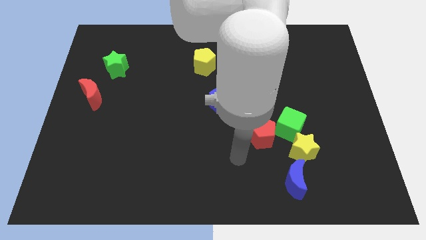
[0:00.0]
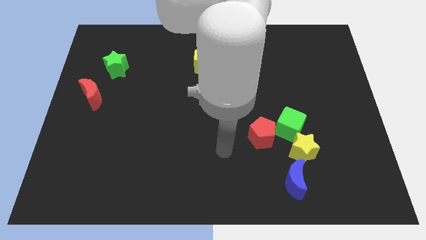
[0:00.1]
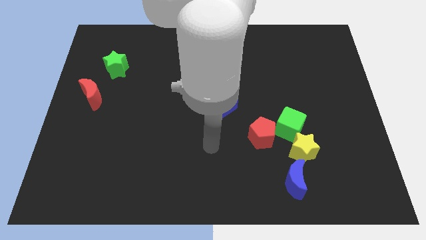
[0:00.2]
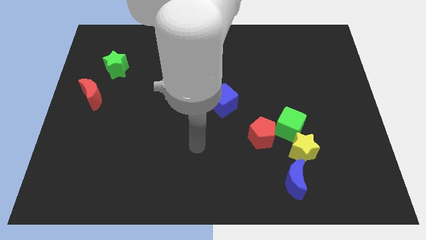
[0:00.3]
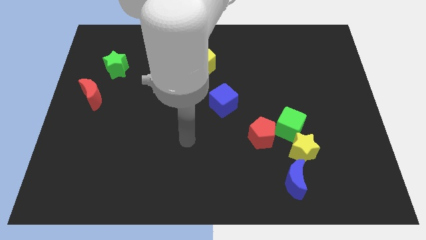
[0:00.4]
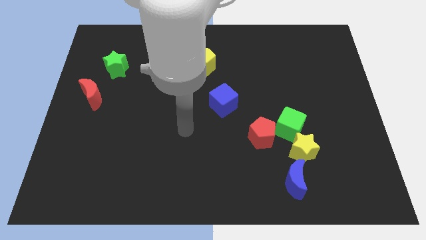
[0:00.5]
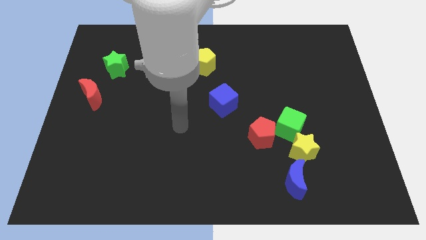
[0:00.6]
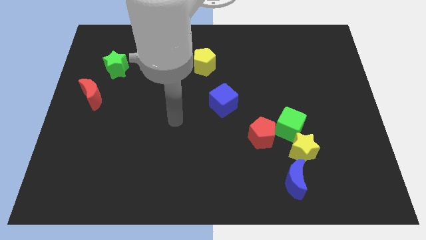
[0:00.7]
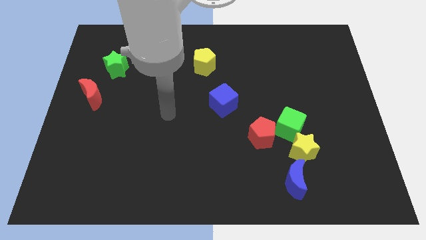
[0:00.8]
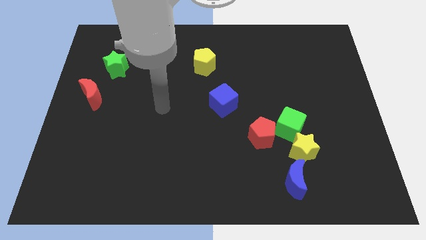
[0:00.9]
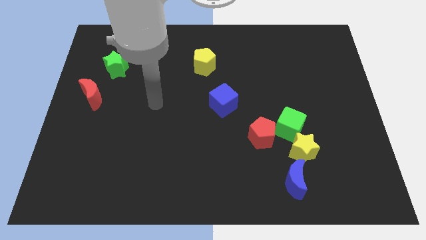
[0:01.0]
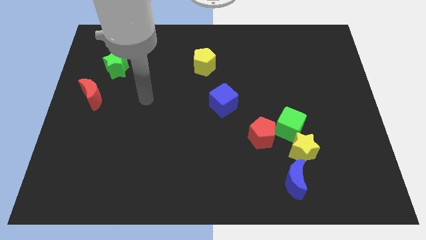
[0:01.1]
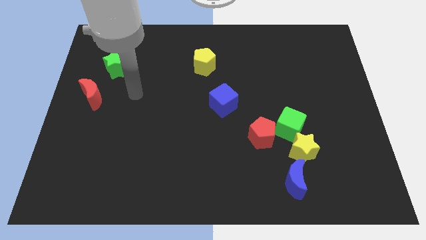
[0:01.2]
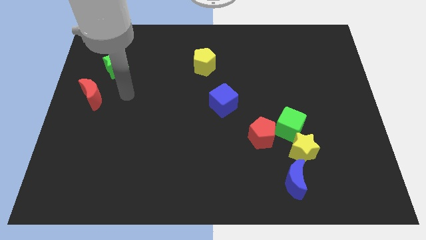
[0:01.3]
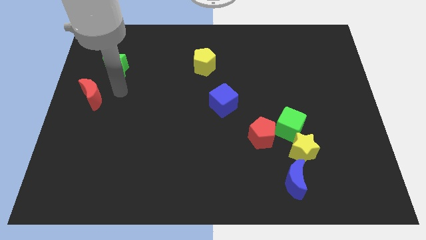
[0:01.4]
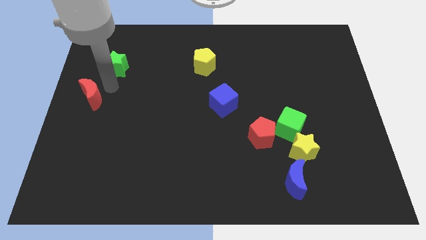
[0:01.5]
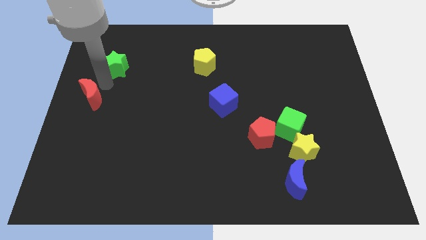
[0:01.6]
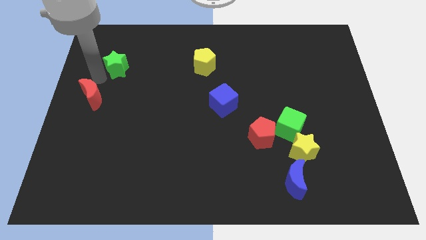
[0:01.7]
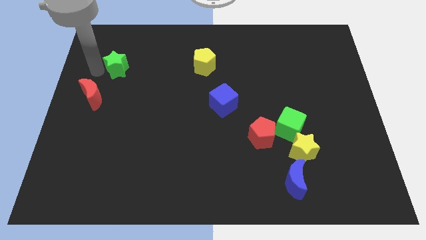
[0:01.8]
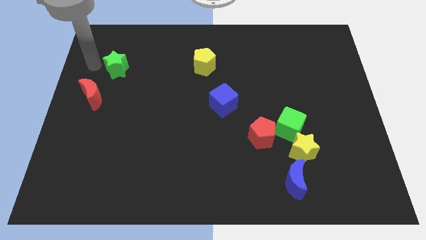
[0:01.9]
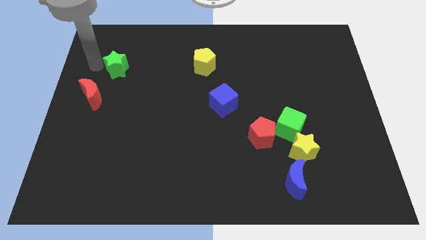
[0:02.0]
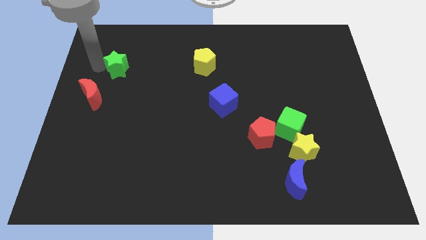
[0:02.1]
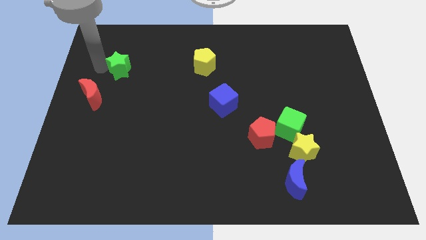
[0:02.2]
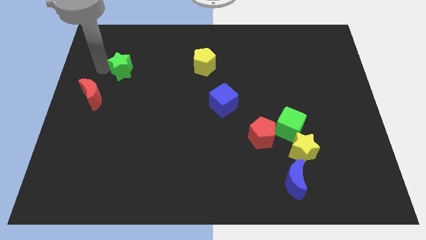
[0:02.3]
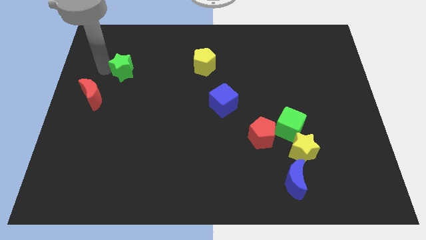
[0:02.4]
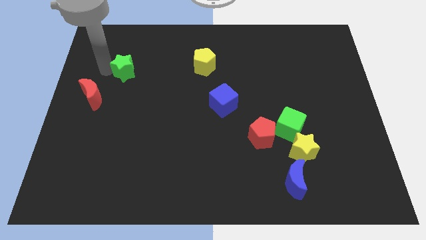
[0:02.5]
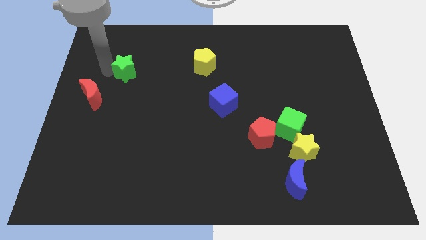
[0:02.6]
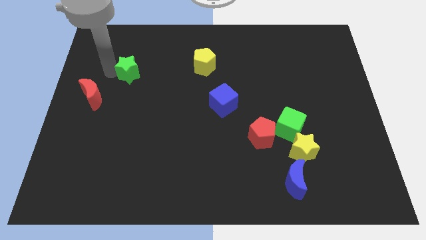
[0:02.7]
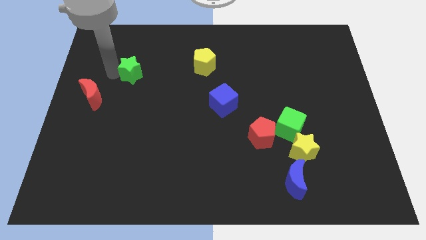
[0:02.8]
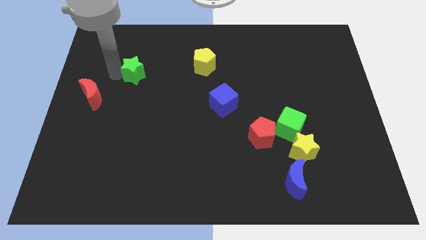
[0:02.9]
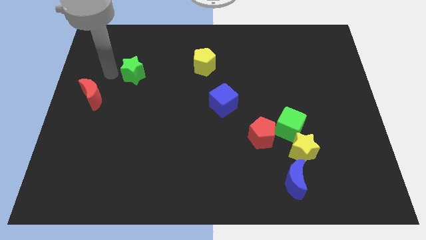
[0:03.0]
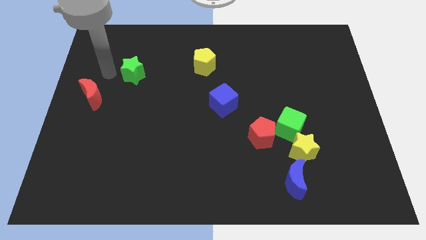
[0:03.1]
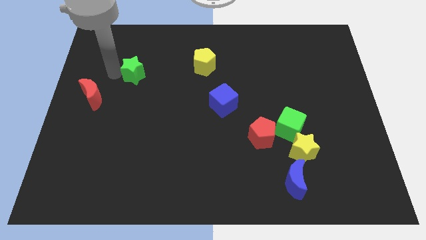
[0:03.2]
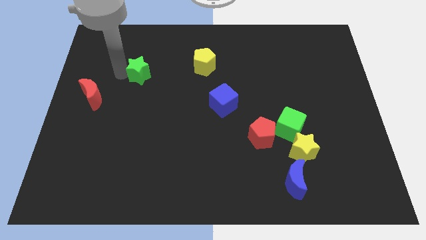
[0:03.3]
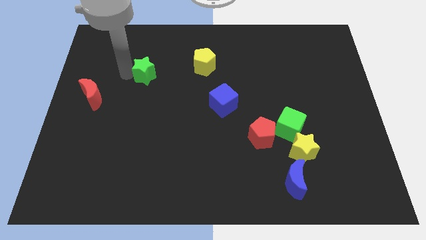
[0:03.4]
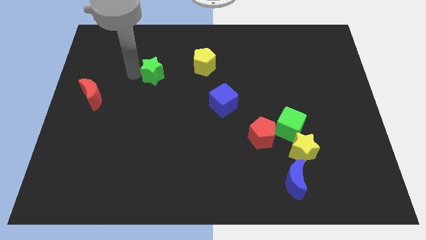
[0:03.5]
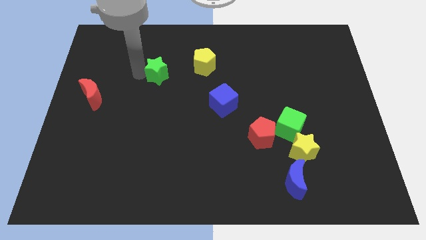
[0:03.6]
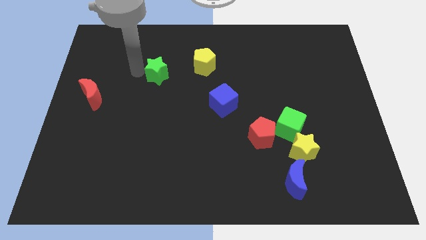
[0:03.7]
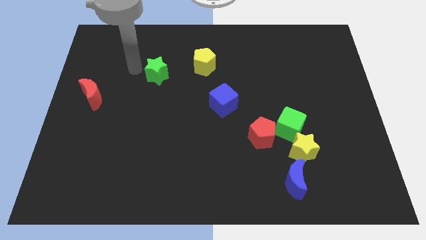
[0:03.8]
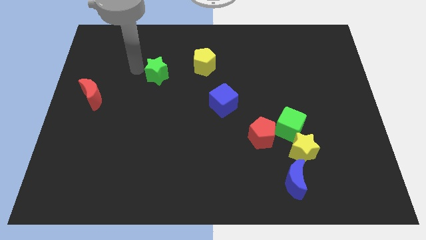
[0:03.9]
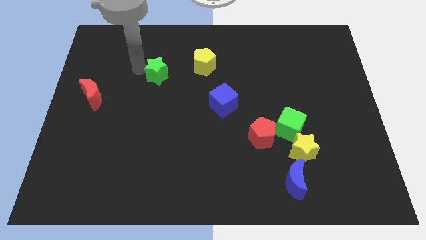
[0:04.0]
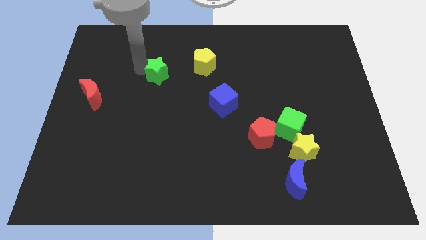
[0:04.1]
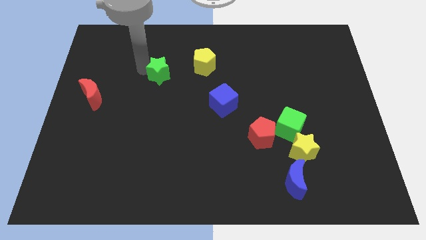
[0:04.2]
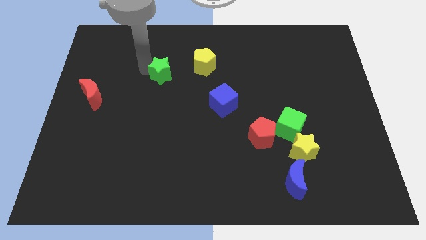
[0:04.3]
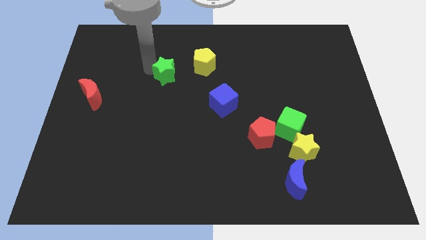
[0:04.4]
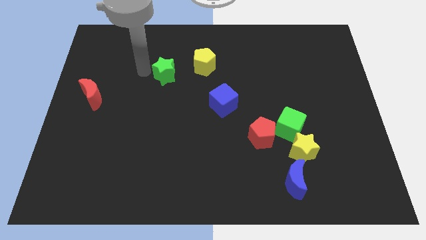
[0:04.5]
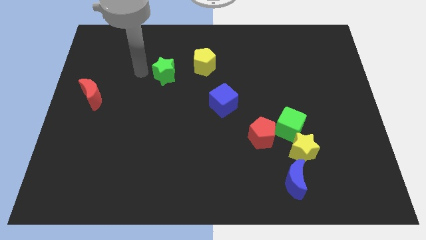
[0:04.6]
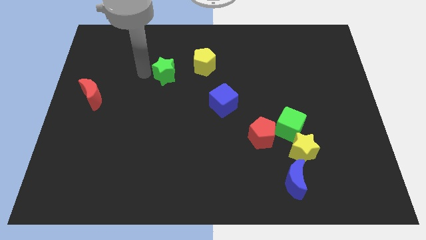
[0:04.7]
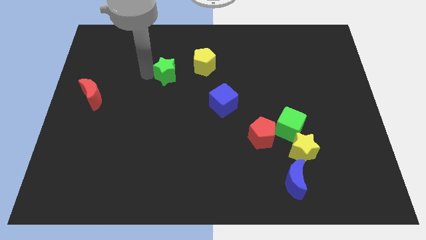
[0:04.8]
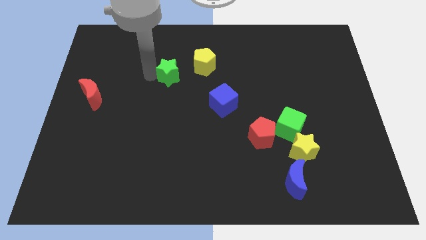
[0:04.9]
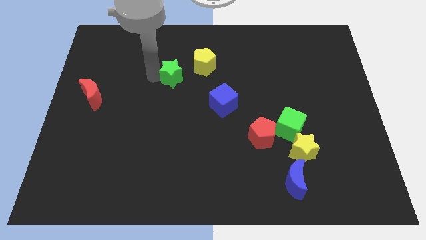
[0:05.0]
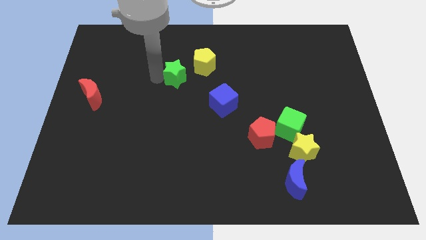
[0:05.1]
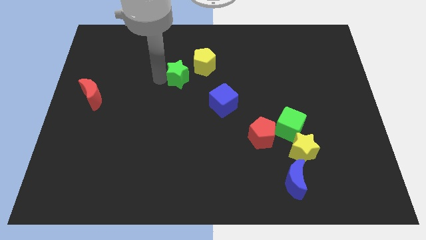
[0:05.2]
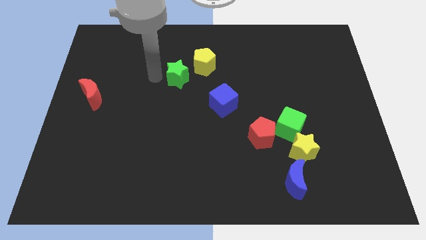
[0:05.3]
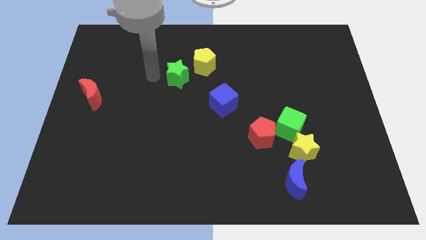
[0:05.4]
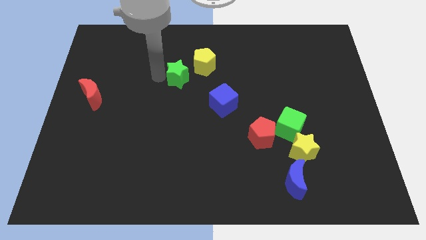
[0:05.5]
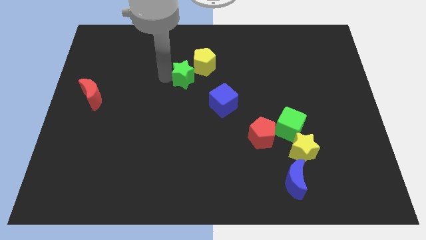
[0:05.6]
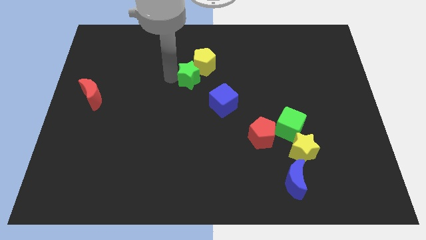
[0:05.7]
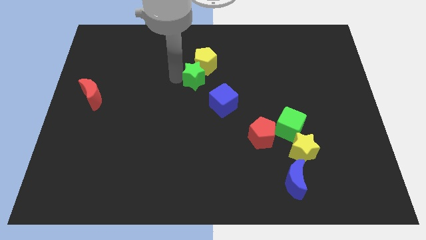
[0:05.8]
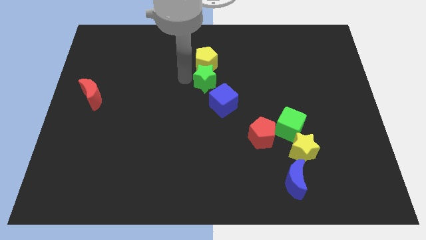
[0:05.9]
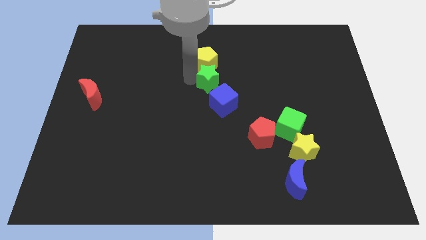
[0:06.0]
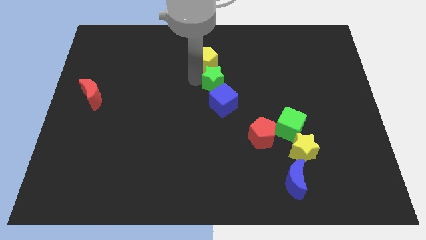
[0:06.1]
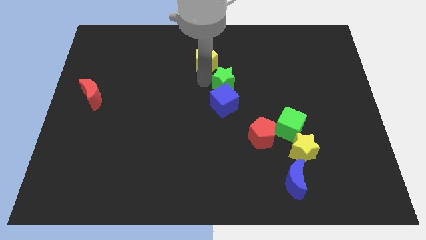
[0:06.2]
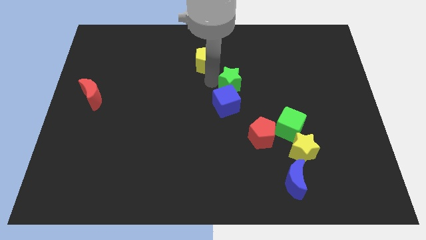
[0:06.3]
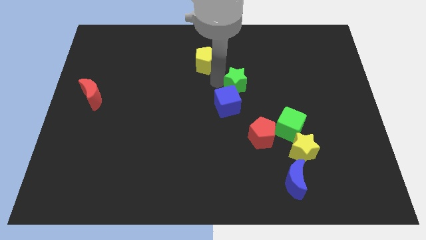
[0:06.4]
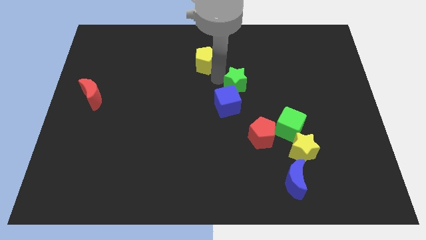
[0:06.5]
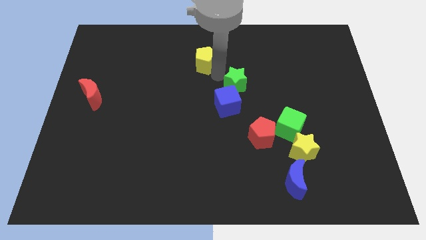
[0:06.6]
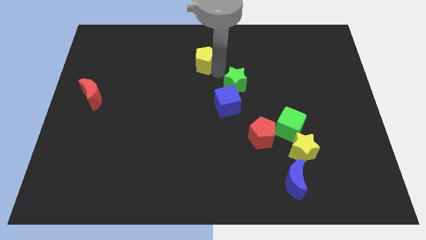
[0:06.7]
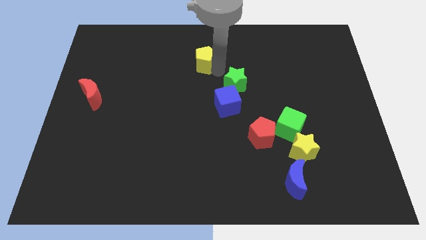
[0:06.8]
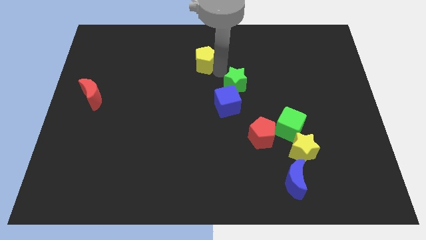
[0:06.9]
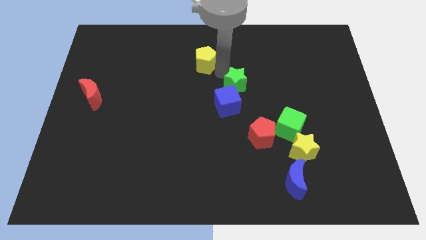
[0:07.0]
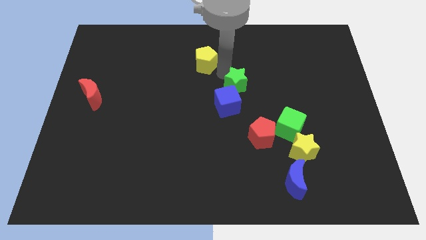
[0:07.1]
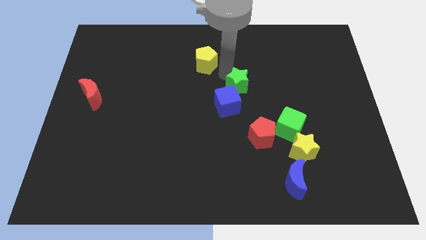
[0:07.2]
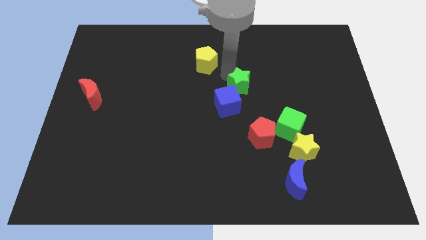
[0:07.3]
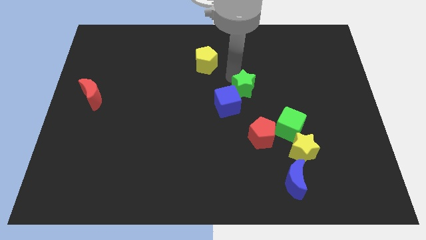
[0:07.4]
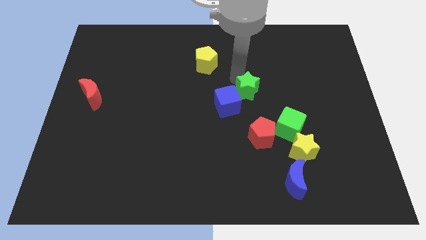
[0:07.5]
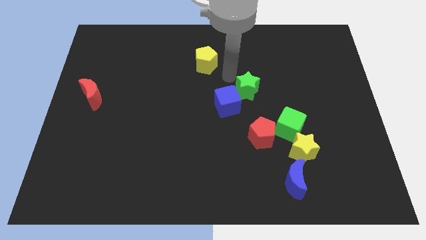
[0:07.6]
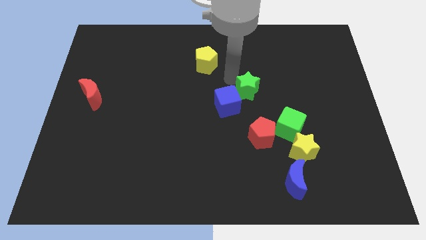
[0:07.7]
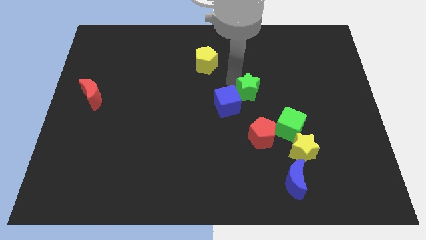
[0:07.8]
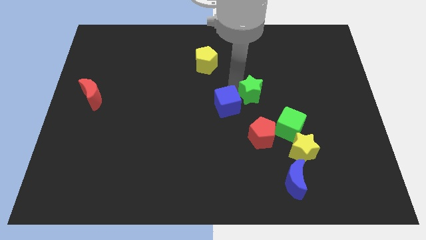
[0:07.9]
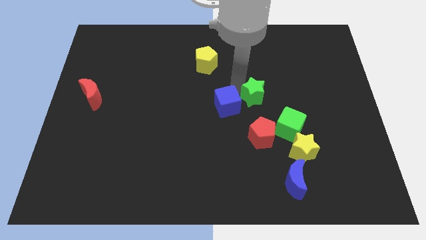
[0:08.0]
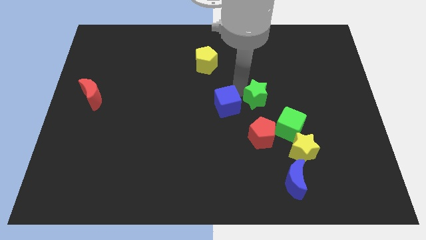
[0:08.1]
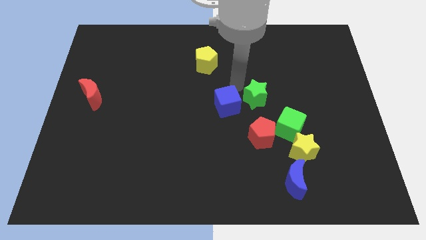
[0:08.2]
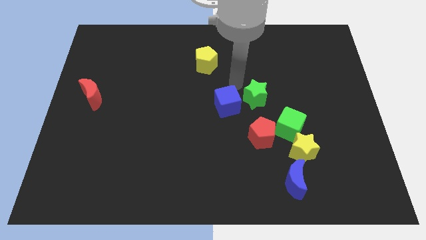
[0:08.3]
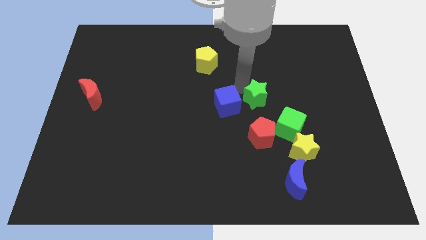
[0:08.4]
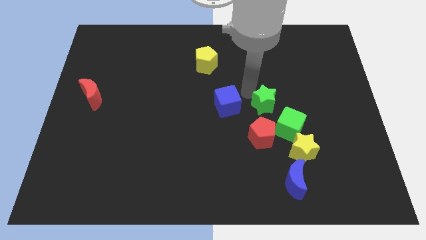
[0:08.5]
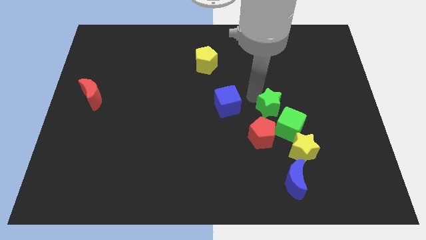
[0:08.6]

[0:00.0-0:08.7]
move the green star to the top right side of the red pentagon
